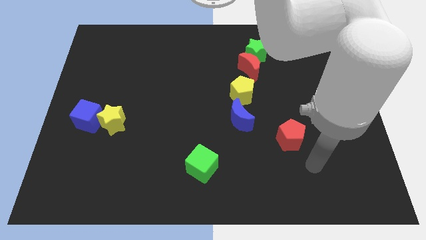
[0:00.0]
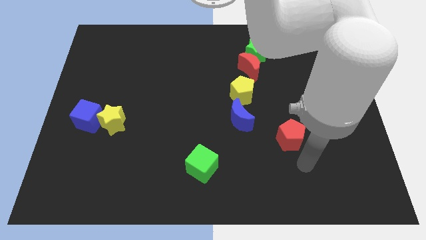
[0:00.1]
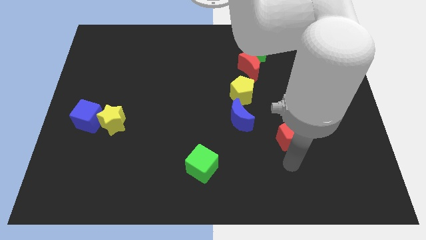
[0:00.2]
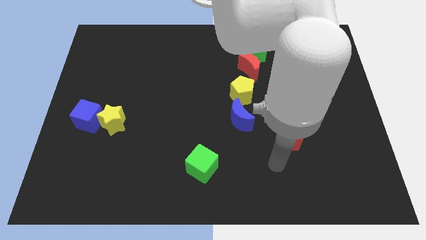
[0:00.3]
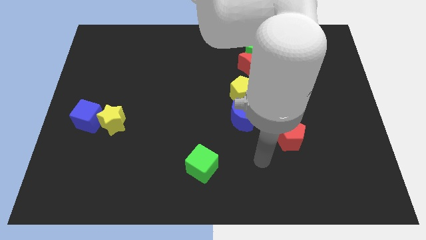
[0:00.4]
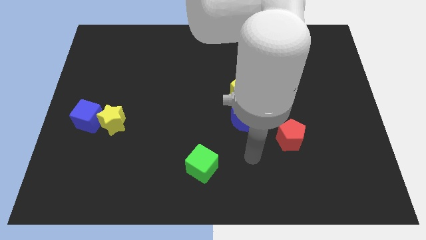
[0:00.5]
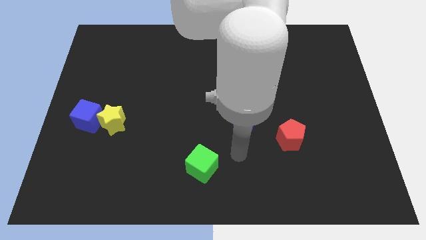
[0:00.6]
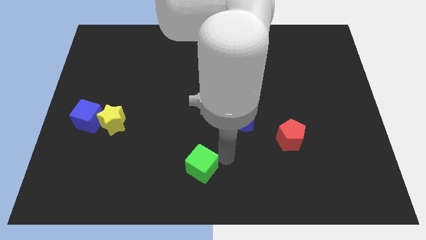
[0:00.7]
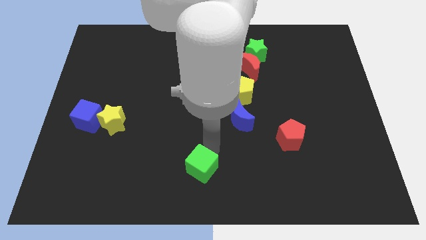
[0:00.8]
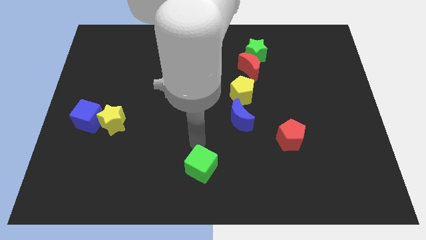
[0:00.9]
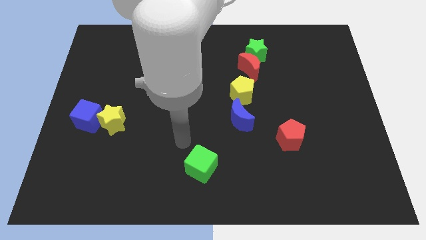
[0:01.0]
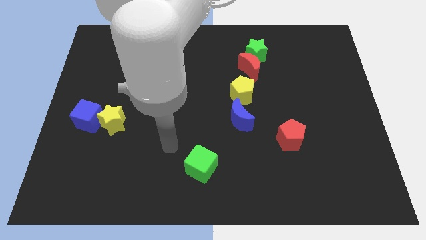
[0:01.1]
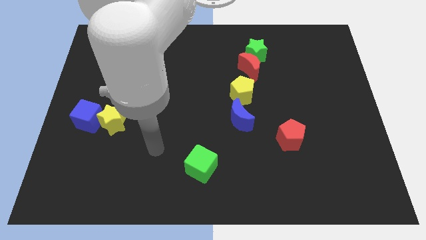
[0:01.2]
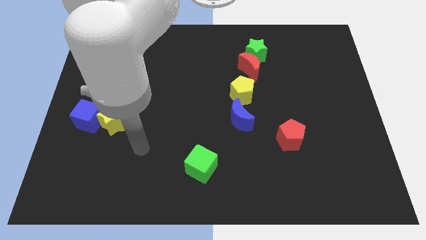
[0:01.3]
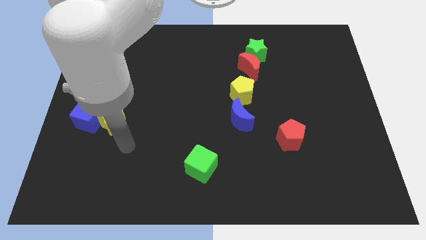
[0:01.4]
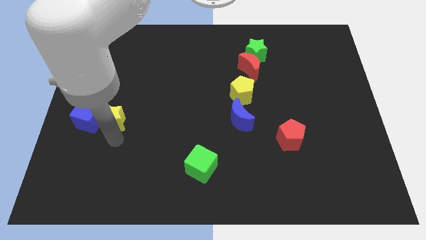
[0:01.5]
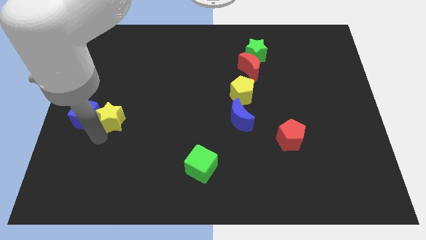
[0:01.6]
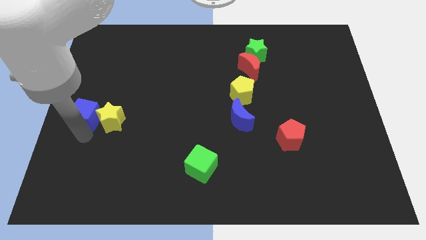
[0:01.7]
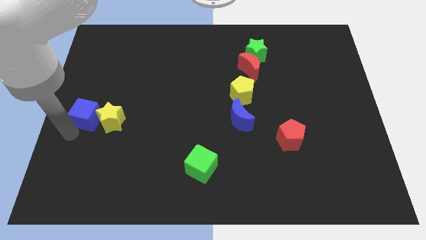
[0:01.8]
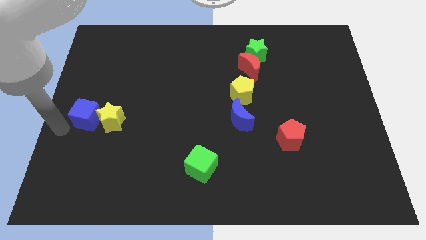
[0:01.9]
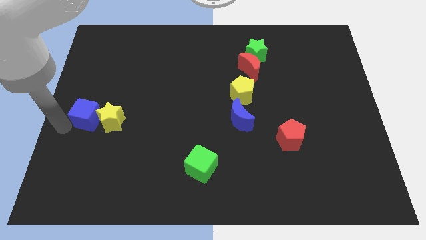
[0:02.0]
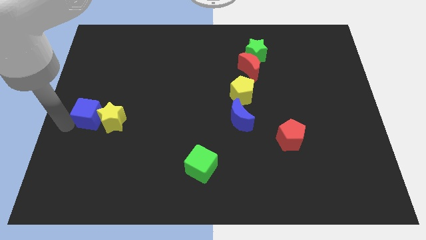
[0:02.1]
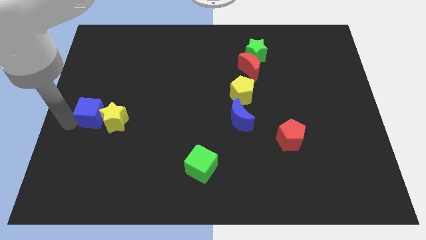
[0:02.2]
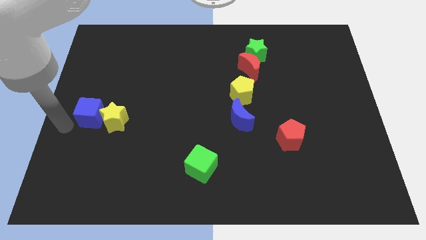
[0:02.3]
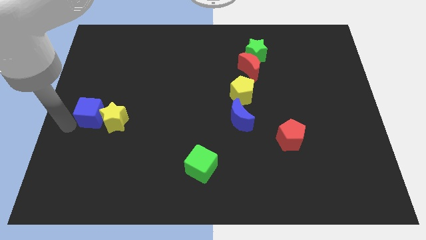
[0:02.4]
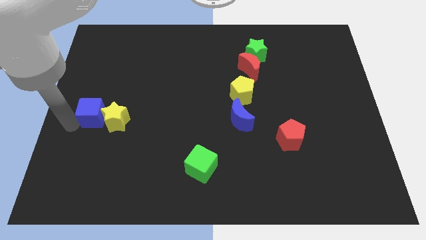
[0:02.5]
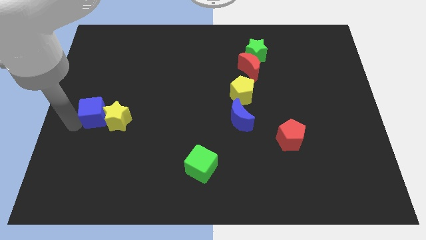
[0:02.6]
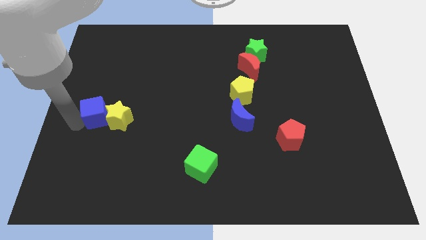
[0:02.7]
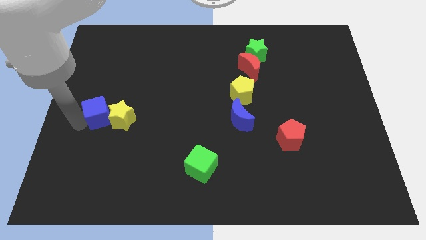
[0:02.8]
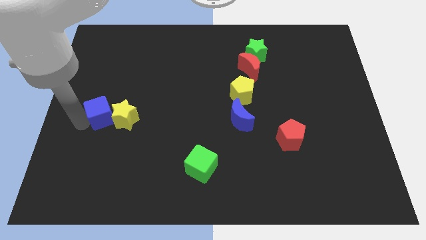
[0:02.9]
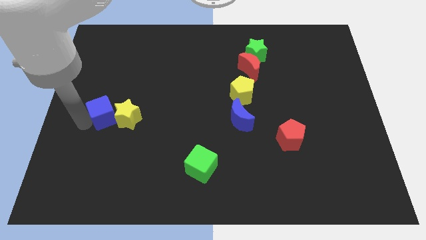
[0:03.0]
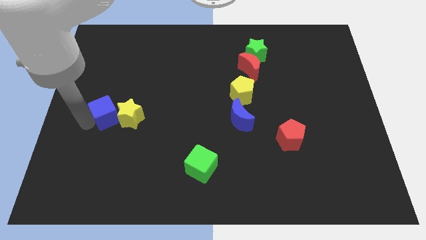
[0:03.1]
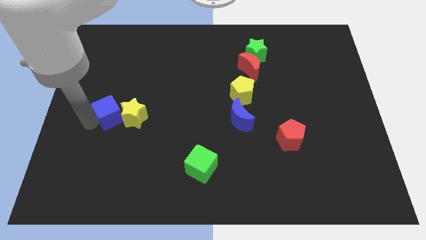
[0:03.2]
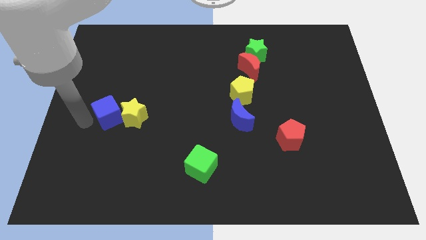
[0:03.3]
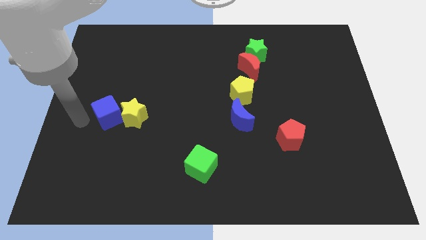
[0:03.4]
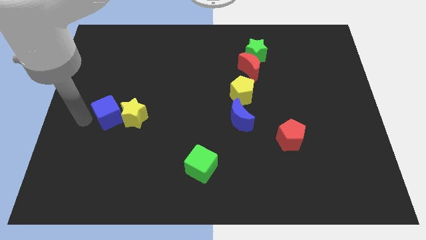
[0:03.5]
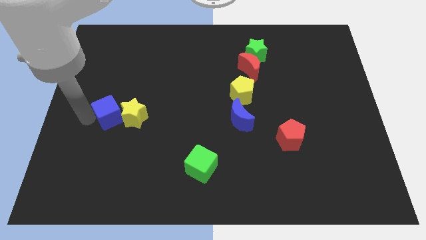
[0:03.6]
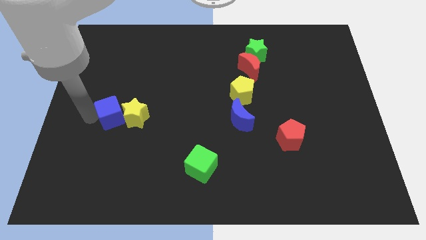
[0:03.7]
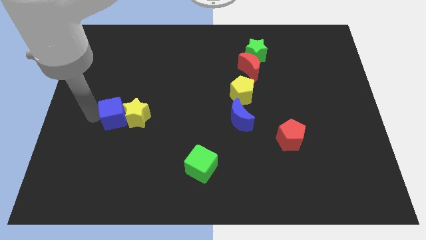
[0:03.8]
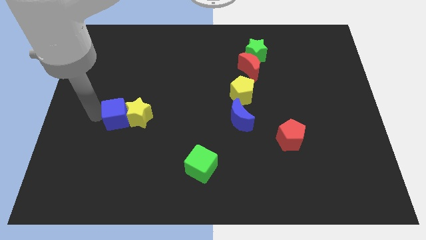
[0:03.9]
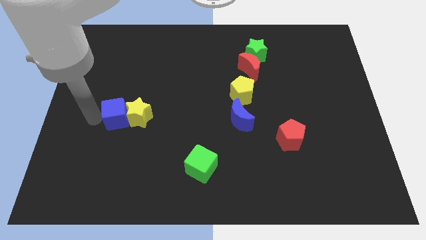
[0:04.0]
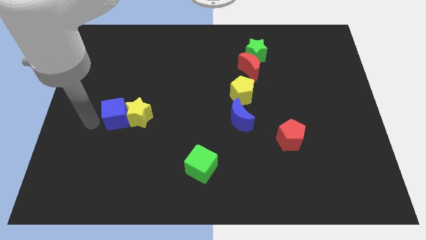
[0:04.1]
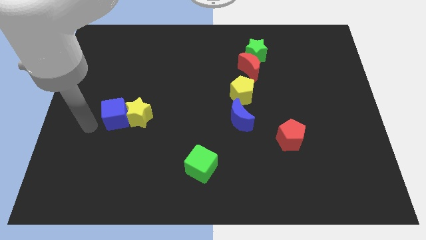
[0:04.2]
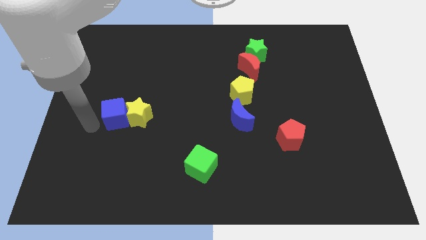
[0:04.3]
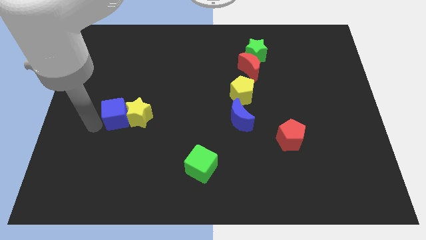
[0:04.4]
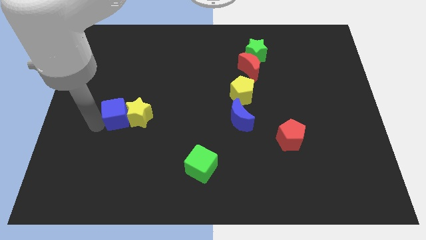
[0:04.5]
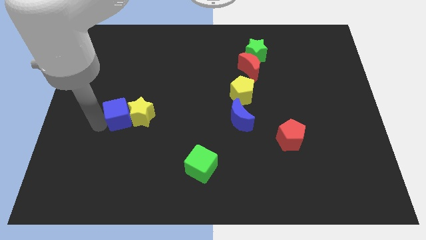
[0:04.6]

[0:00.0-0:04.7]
push the blue cube to the right a little

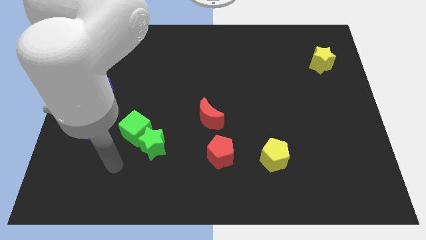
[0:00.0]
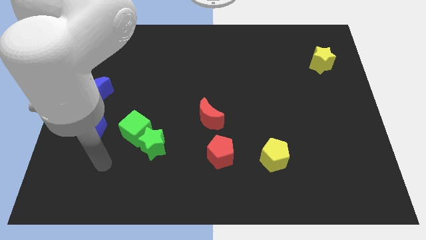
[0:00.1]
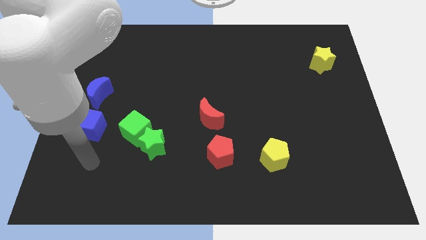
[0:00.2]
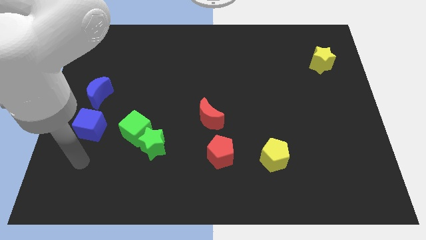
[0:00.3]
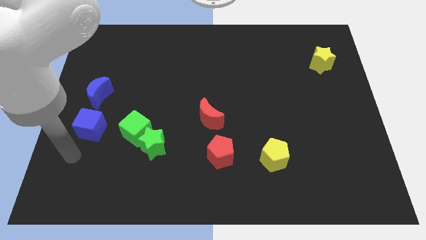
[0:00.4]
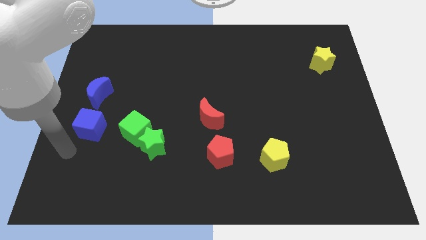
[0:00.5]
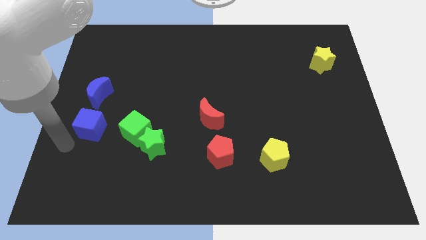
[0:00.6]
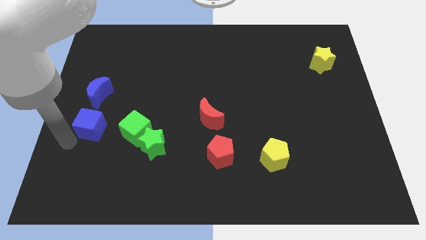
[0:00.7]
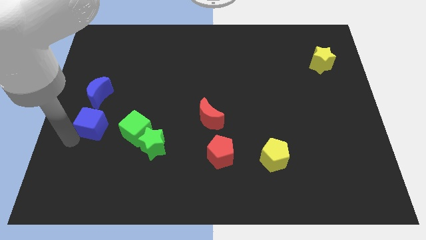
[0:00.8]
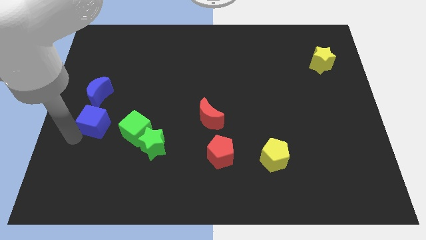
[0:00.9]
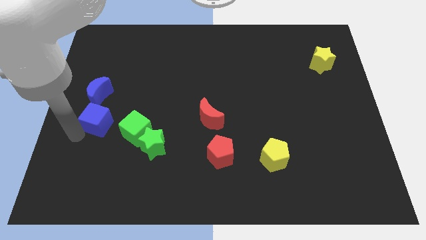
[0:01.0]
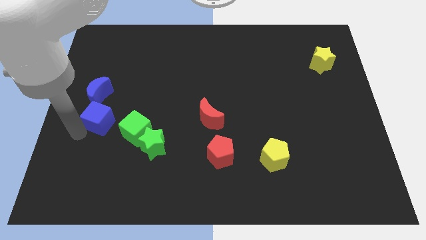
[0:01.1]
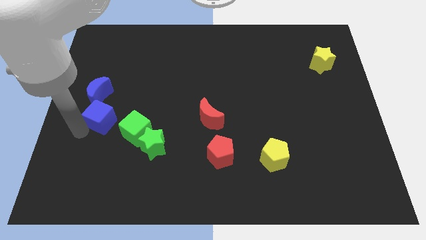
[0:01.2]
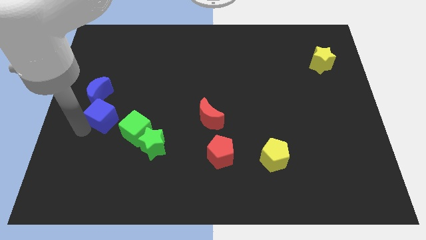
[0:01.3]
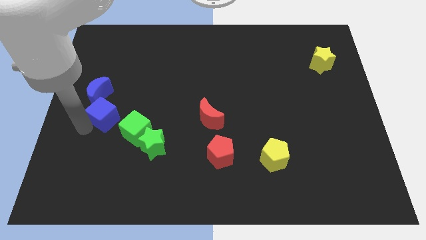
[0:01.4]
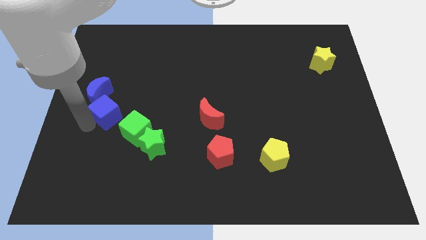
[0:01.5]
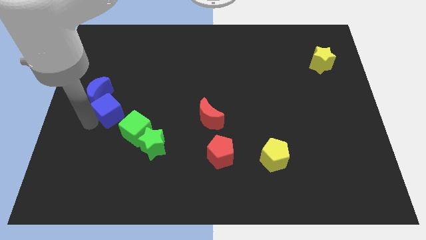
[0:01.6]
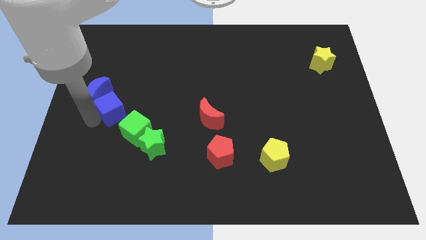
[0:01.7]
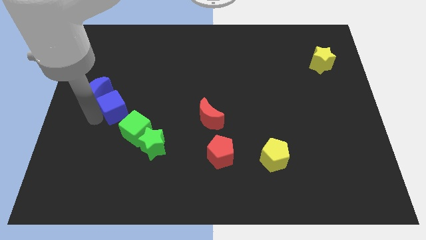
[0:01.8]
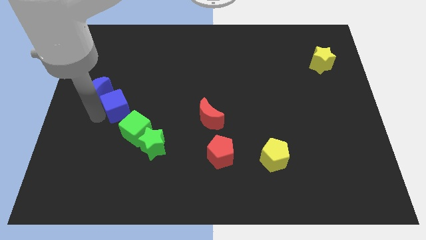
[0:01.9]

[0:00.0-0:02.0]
slightly slide the blue cube upwards and then right

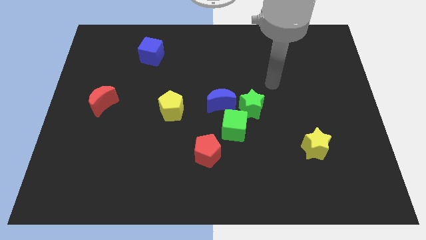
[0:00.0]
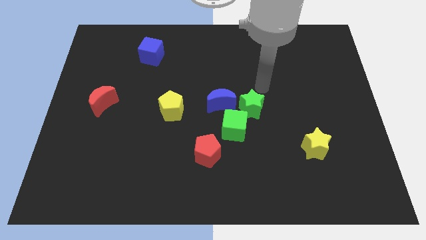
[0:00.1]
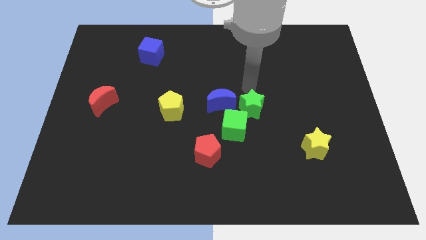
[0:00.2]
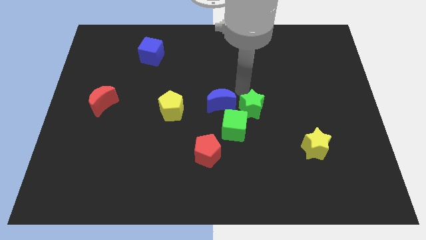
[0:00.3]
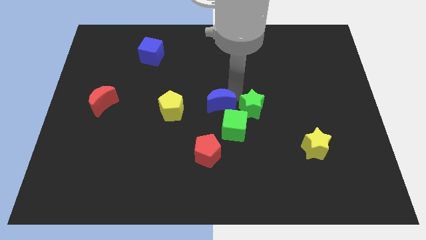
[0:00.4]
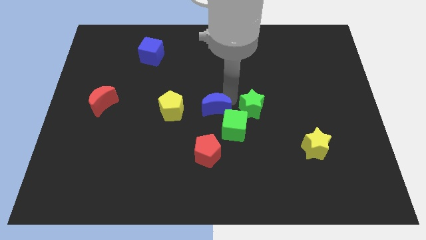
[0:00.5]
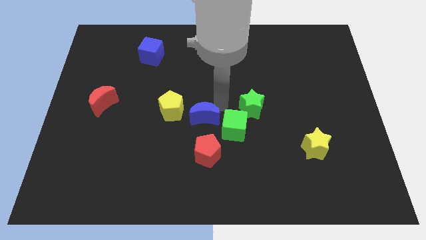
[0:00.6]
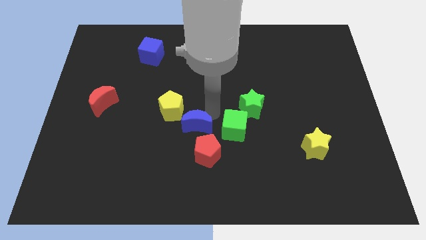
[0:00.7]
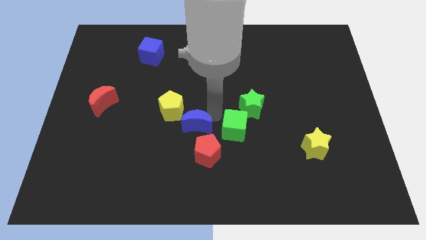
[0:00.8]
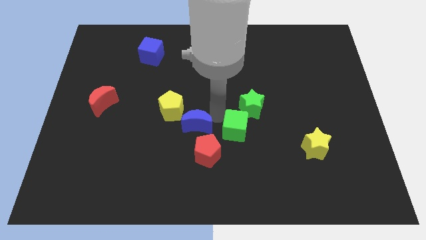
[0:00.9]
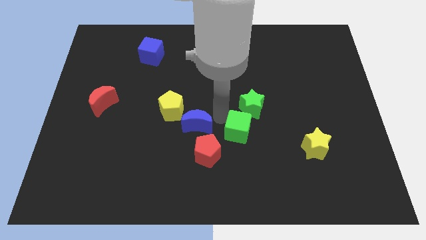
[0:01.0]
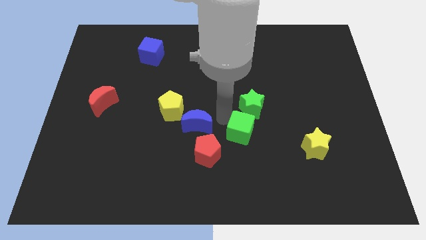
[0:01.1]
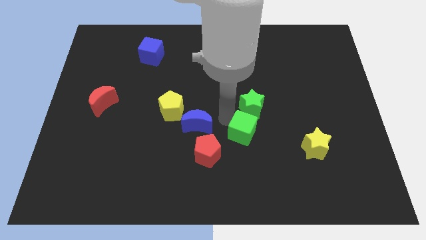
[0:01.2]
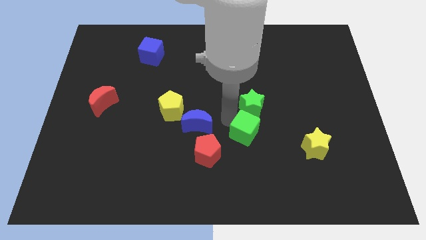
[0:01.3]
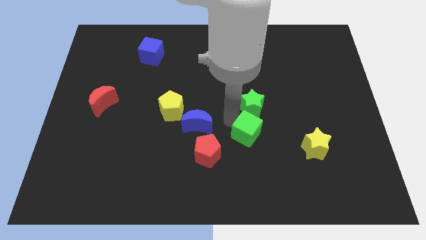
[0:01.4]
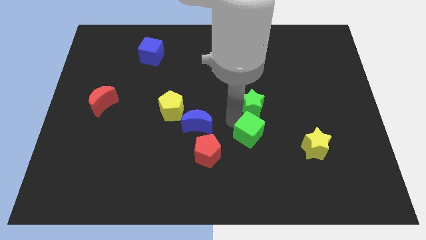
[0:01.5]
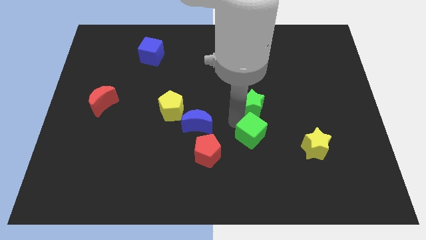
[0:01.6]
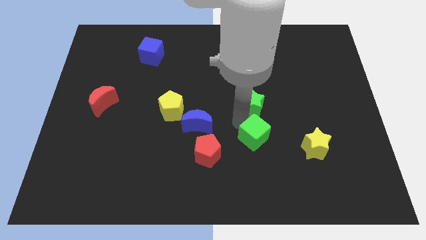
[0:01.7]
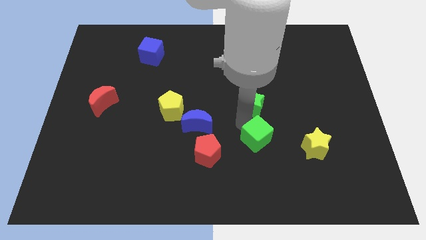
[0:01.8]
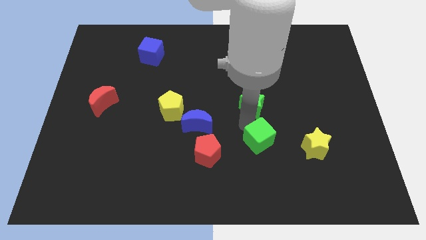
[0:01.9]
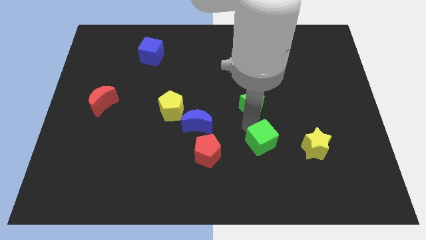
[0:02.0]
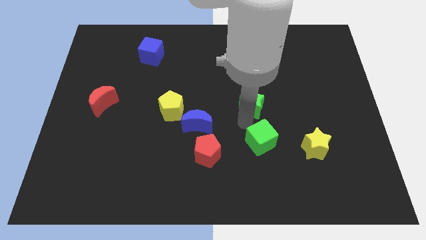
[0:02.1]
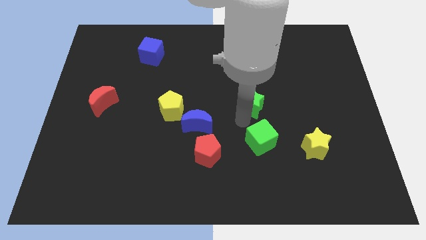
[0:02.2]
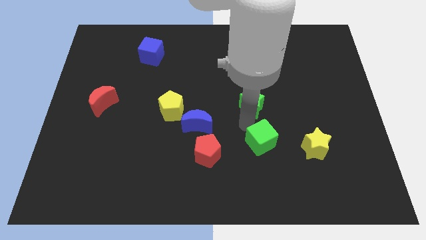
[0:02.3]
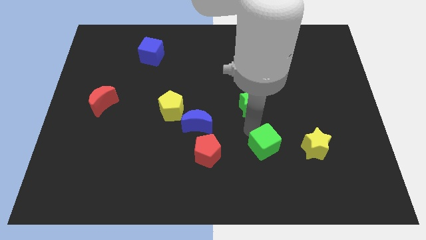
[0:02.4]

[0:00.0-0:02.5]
slide the green cube a bit diagonally downwards and right
